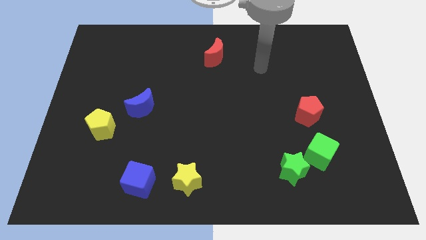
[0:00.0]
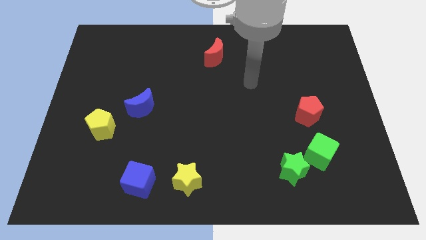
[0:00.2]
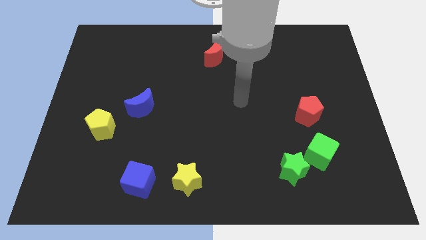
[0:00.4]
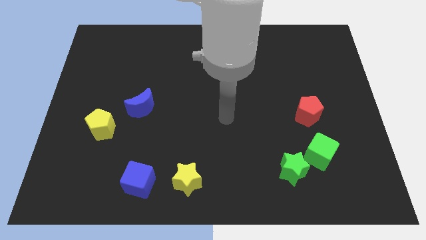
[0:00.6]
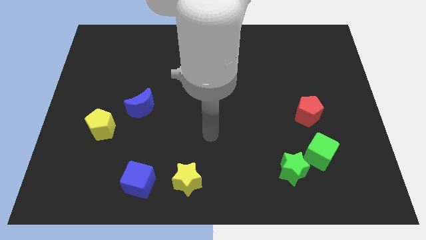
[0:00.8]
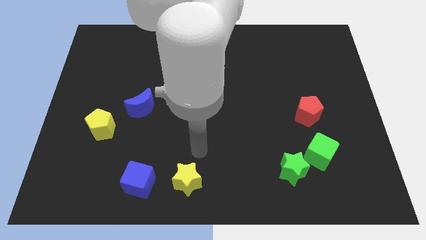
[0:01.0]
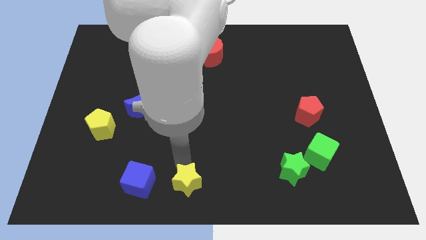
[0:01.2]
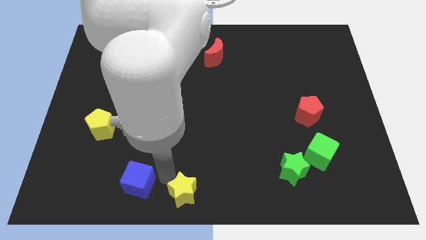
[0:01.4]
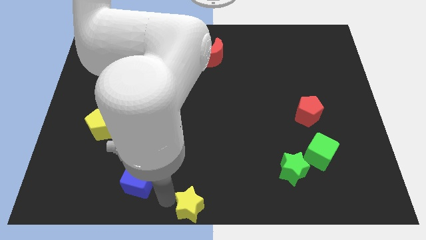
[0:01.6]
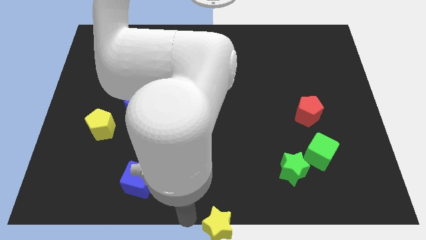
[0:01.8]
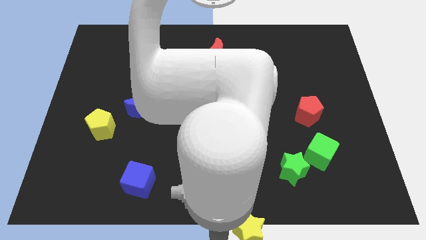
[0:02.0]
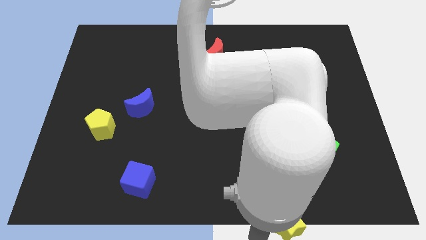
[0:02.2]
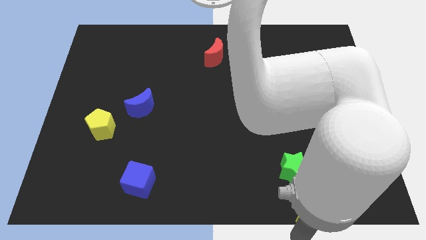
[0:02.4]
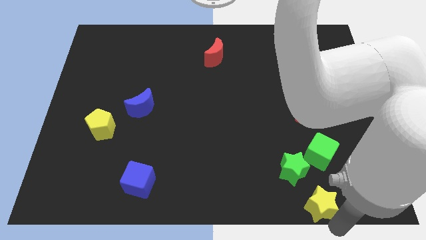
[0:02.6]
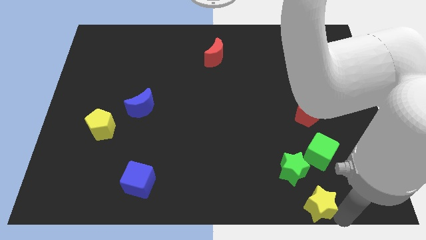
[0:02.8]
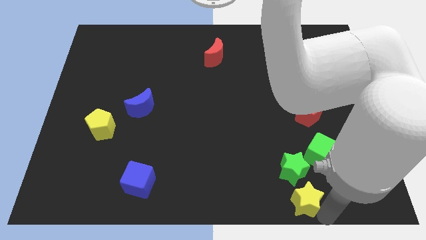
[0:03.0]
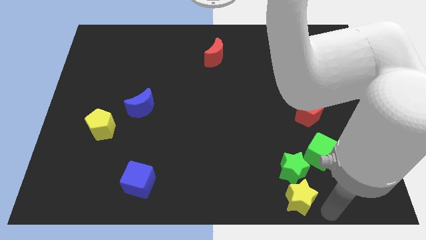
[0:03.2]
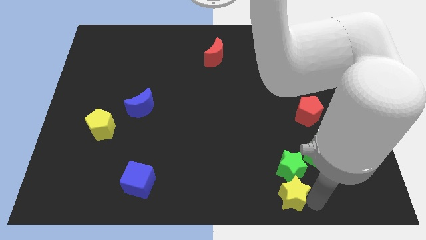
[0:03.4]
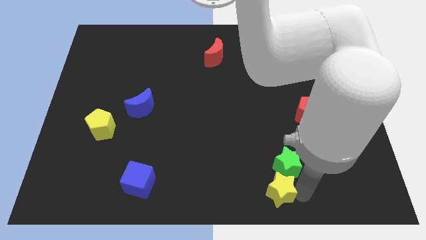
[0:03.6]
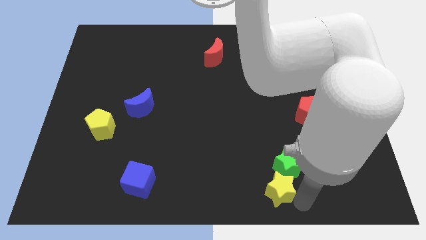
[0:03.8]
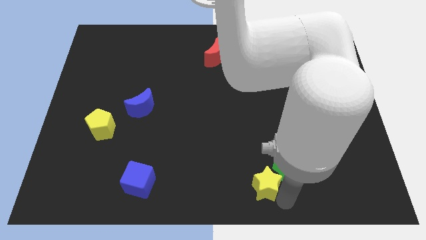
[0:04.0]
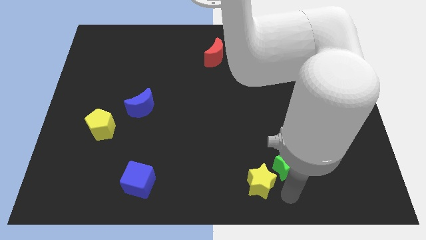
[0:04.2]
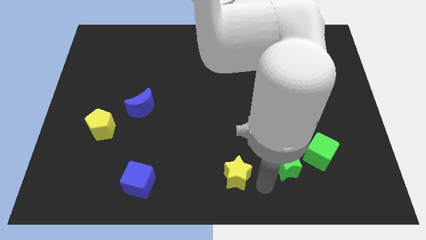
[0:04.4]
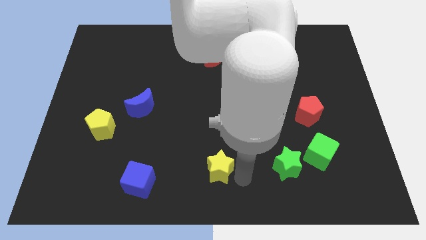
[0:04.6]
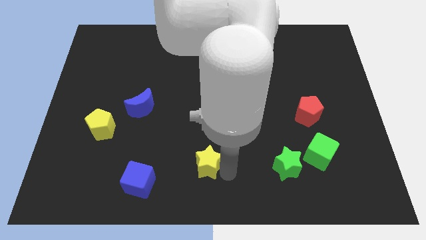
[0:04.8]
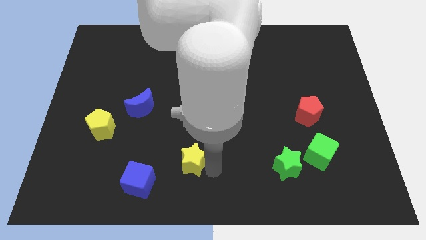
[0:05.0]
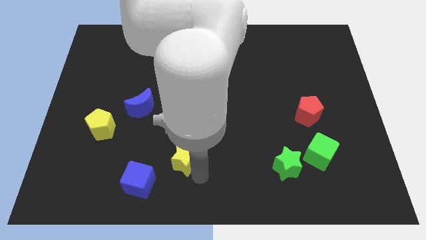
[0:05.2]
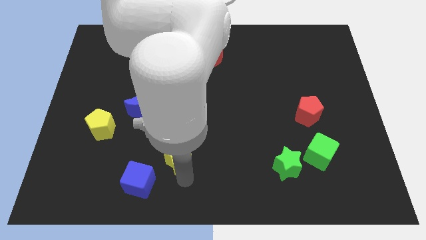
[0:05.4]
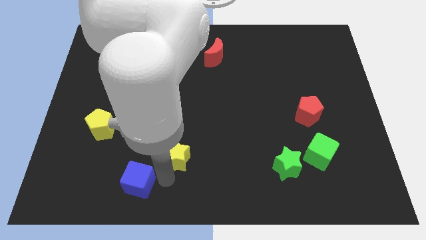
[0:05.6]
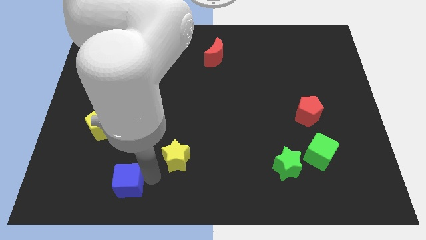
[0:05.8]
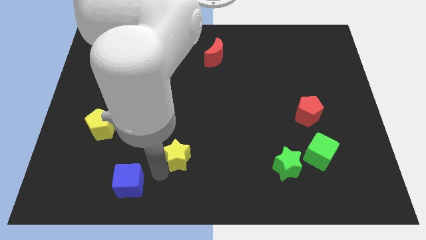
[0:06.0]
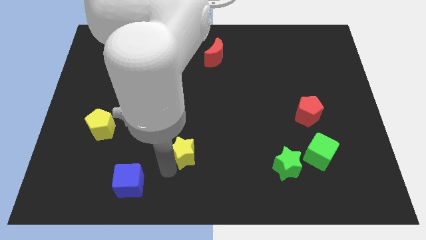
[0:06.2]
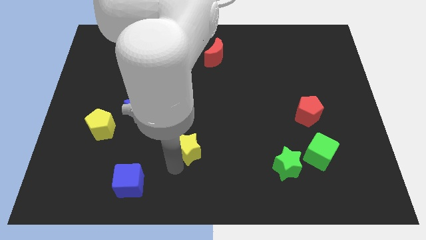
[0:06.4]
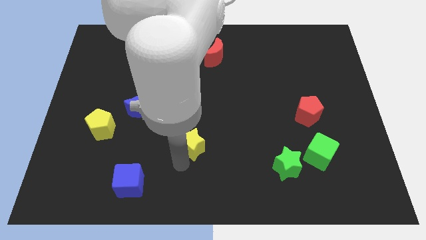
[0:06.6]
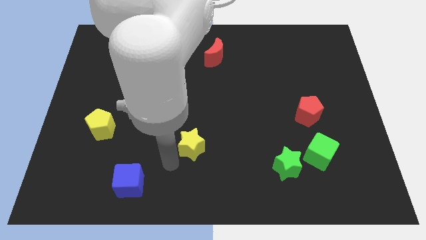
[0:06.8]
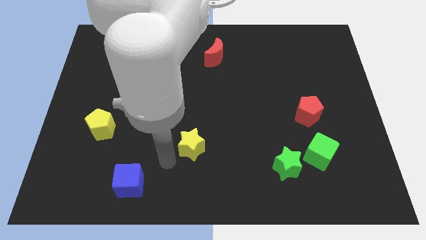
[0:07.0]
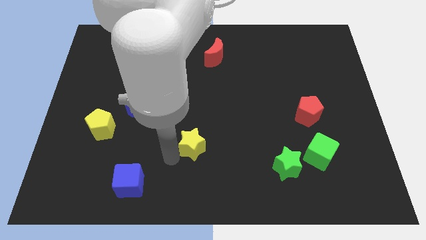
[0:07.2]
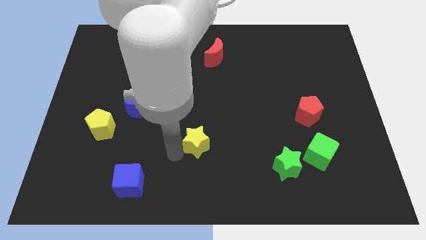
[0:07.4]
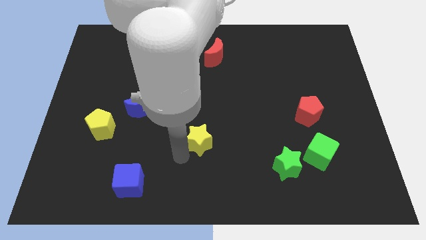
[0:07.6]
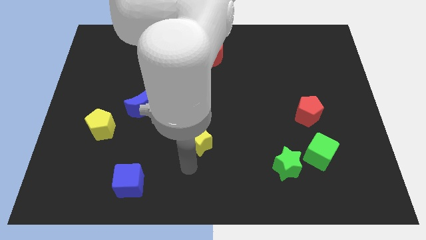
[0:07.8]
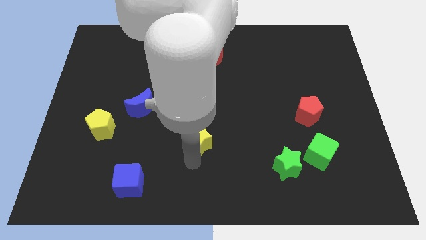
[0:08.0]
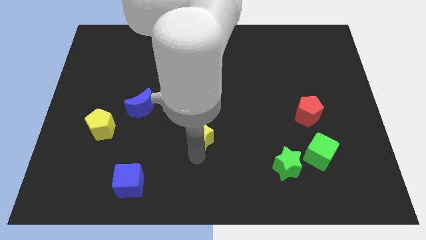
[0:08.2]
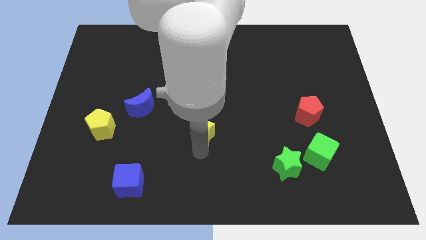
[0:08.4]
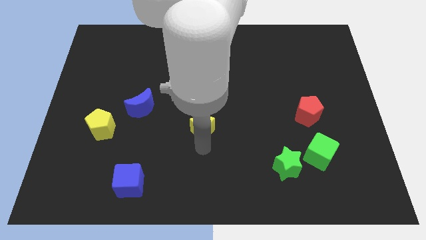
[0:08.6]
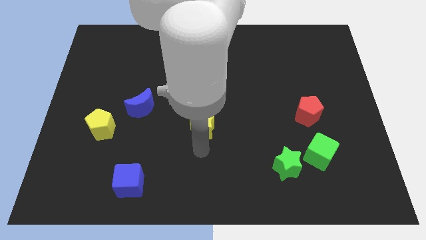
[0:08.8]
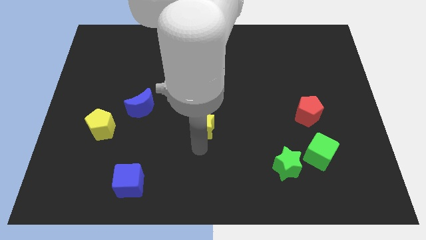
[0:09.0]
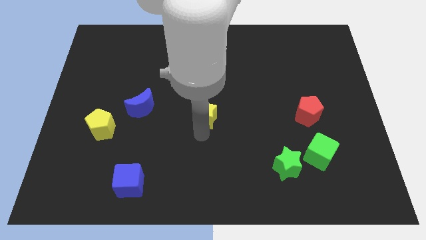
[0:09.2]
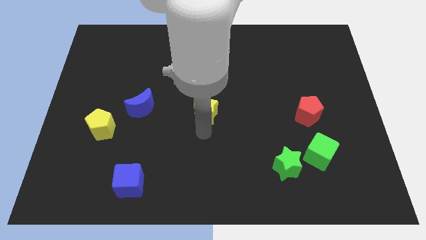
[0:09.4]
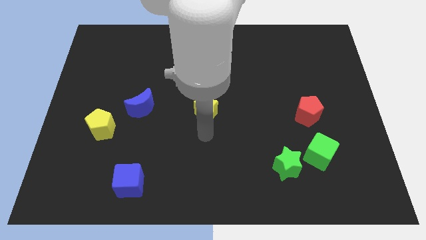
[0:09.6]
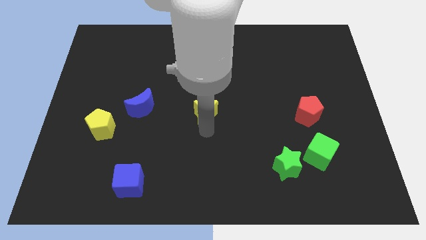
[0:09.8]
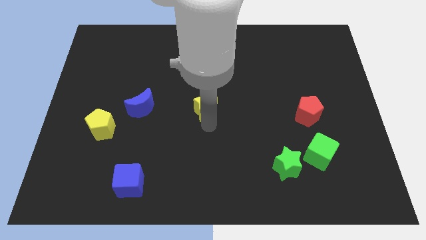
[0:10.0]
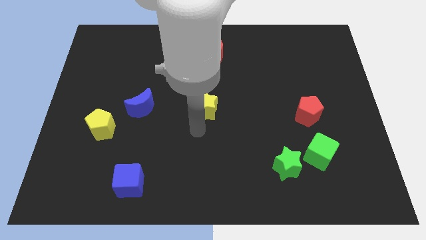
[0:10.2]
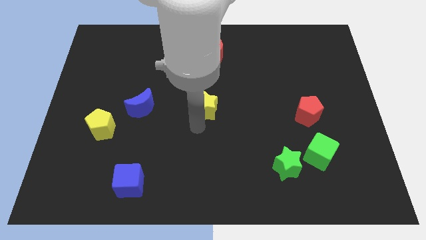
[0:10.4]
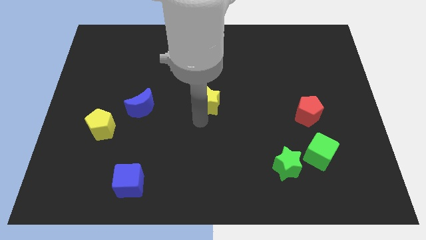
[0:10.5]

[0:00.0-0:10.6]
move the yellow star to the bottom of the red moon

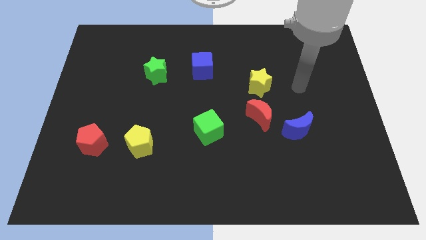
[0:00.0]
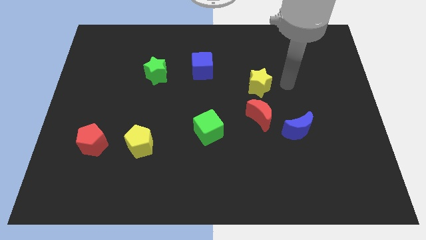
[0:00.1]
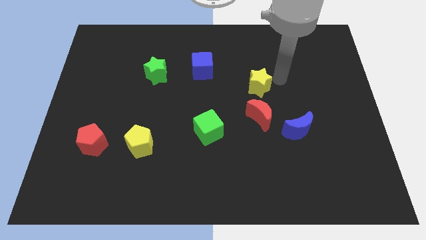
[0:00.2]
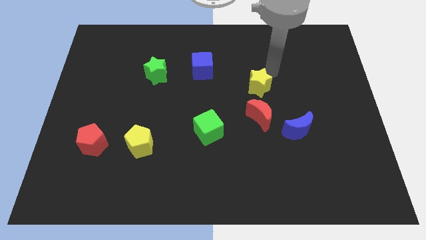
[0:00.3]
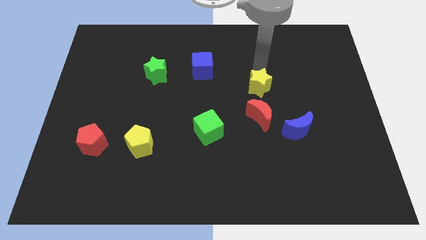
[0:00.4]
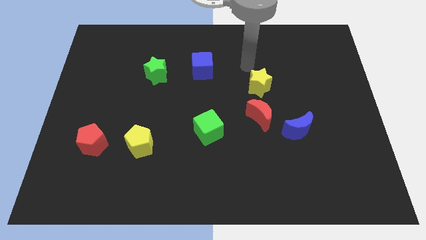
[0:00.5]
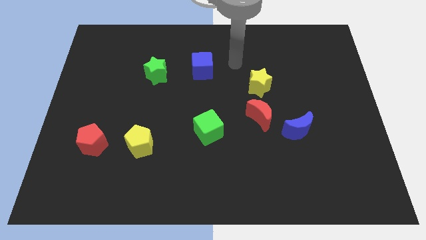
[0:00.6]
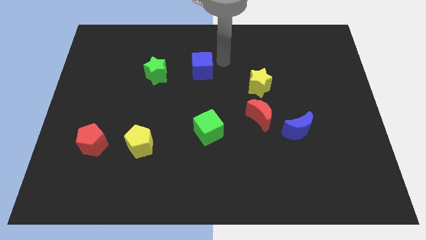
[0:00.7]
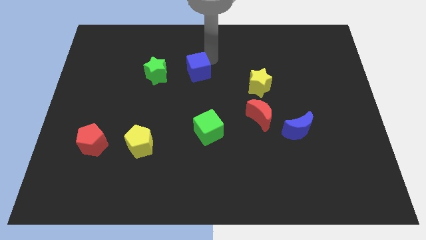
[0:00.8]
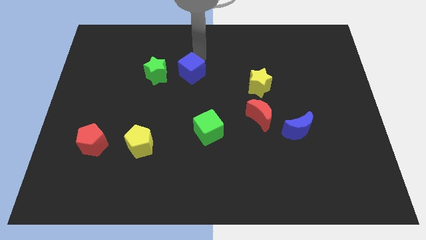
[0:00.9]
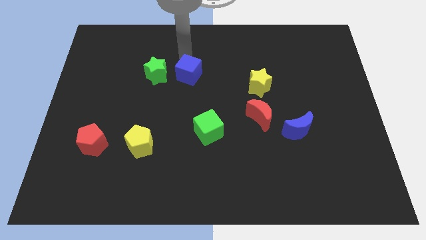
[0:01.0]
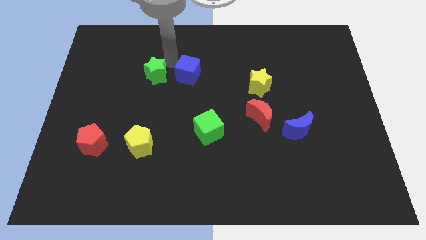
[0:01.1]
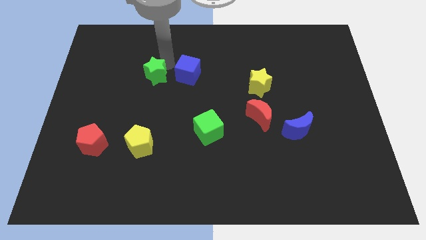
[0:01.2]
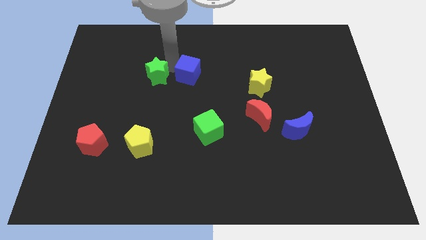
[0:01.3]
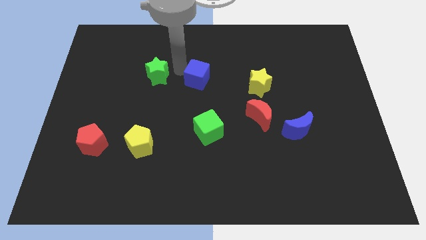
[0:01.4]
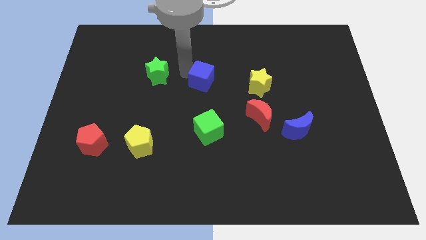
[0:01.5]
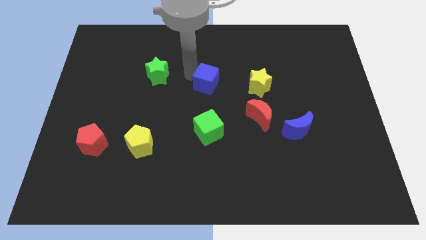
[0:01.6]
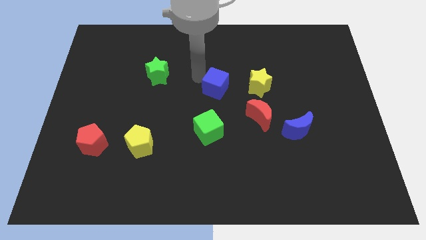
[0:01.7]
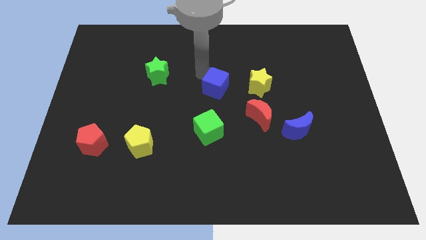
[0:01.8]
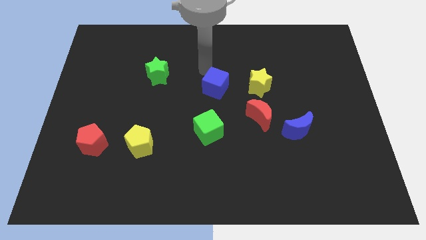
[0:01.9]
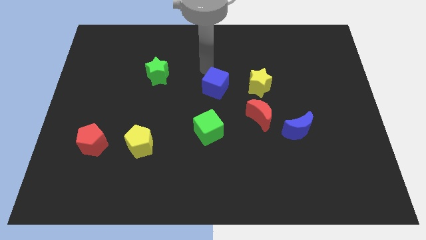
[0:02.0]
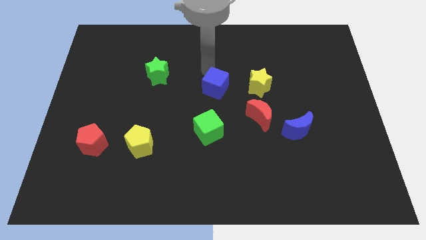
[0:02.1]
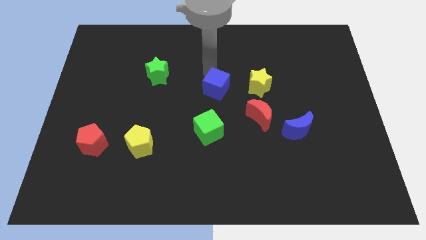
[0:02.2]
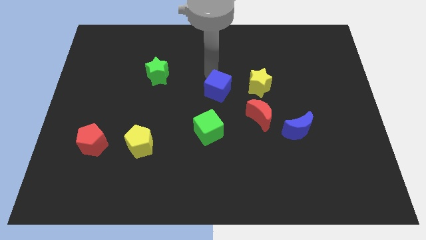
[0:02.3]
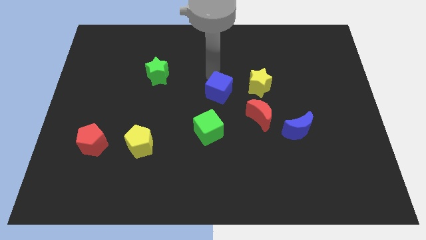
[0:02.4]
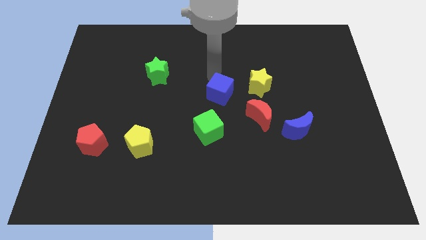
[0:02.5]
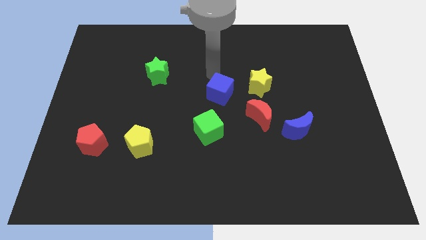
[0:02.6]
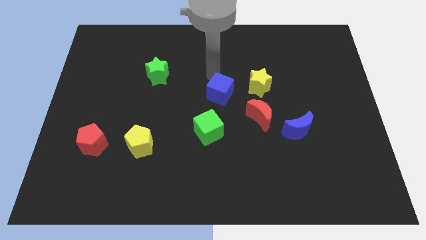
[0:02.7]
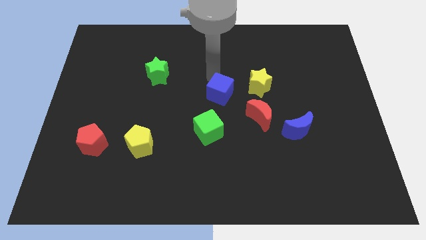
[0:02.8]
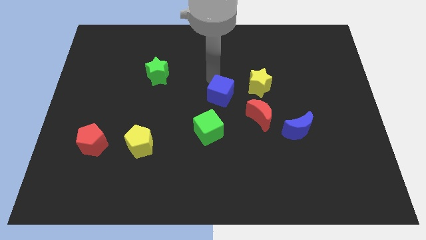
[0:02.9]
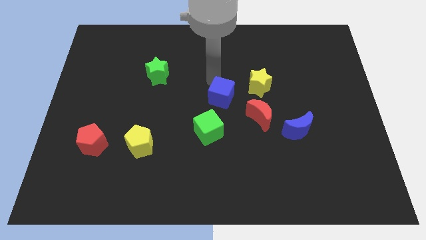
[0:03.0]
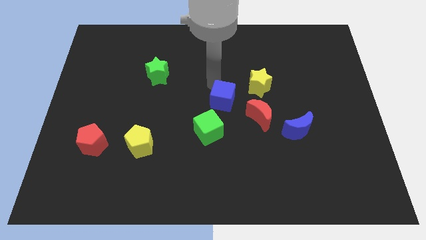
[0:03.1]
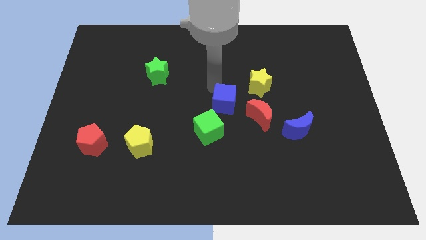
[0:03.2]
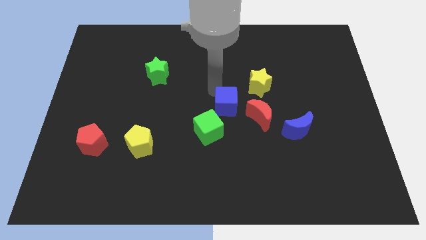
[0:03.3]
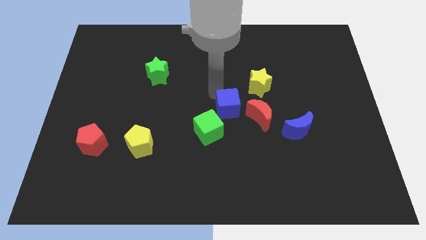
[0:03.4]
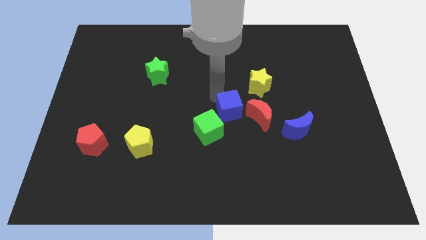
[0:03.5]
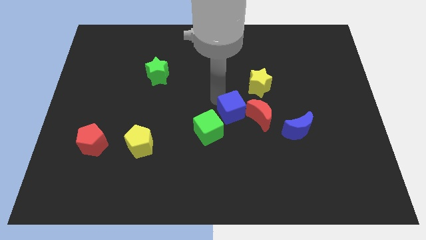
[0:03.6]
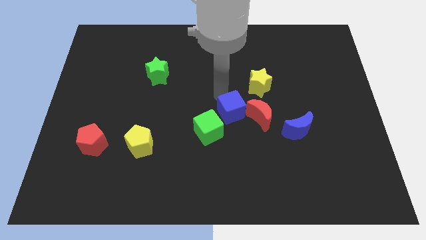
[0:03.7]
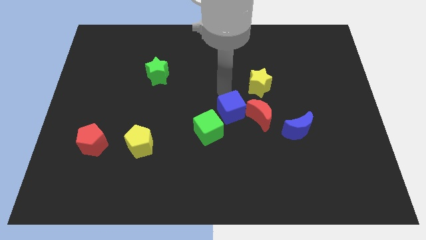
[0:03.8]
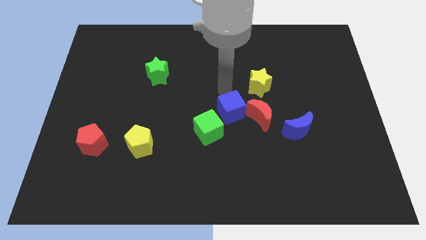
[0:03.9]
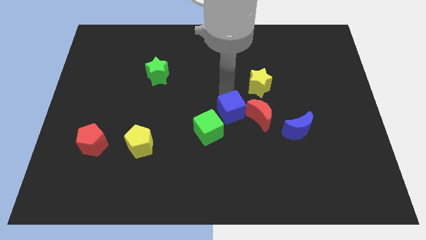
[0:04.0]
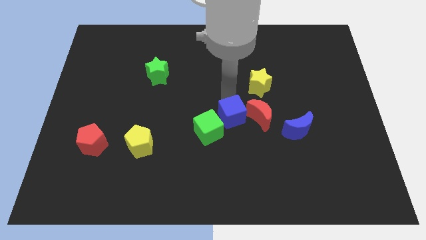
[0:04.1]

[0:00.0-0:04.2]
push the blue cube to the bottom left side of the red moon
